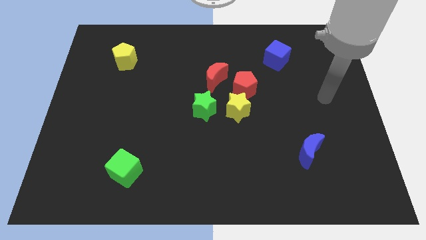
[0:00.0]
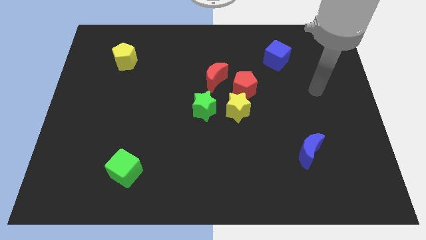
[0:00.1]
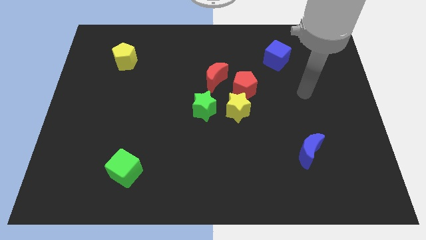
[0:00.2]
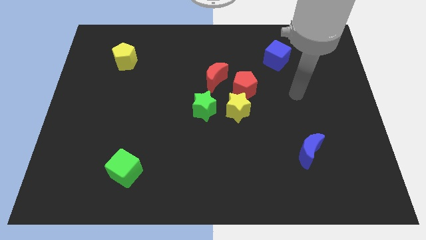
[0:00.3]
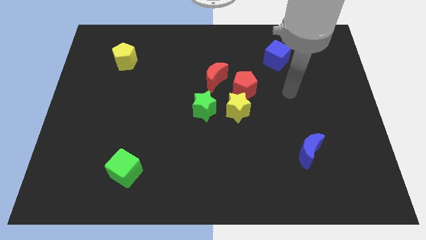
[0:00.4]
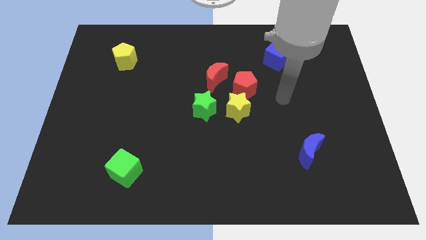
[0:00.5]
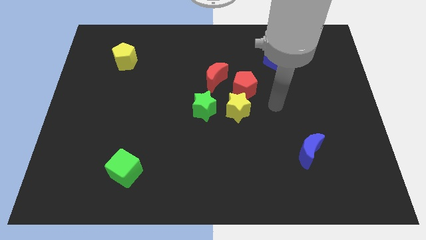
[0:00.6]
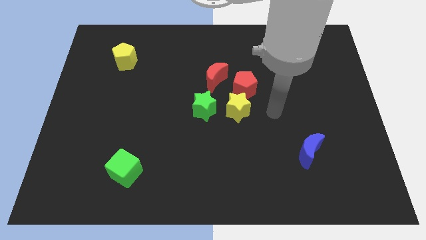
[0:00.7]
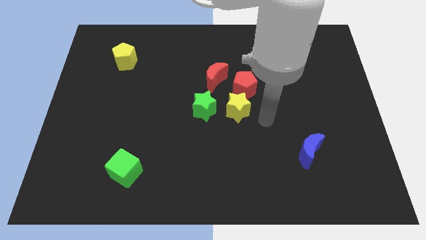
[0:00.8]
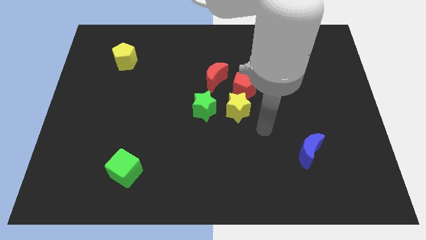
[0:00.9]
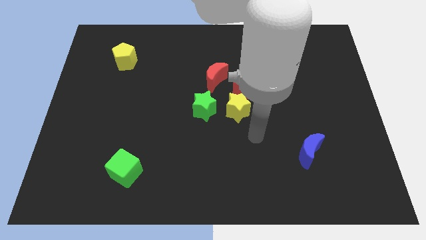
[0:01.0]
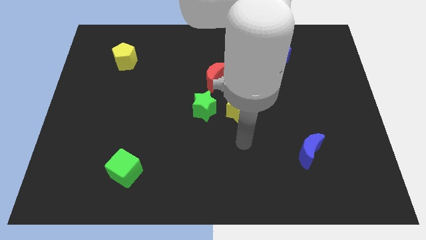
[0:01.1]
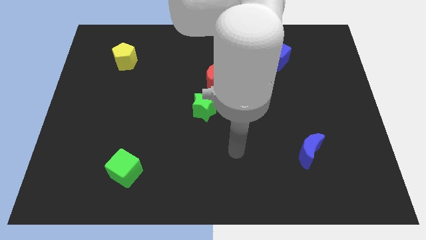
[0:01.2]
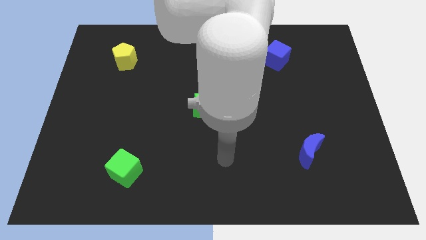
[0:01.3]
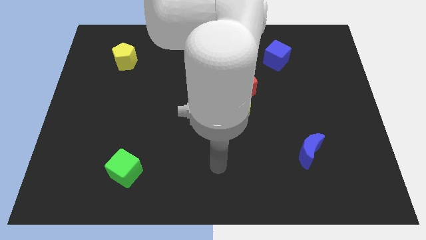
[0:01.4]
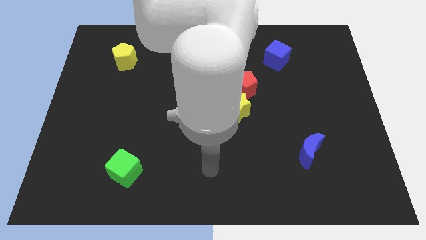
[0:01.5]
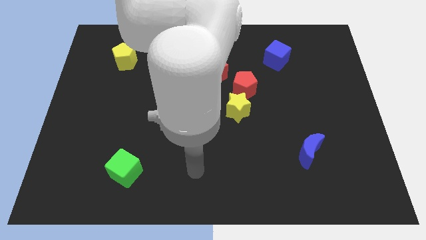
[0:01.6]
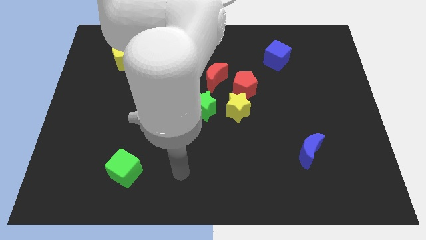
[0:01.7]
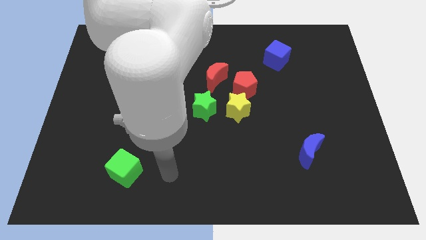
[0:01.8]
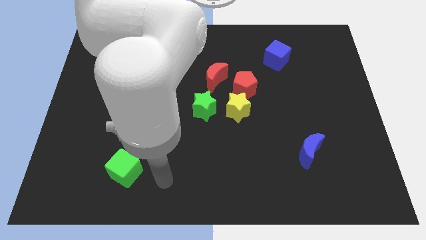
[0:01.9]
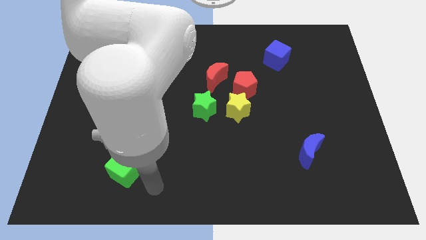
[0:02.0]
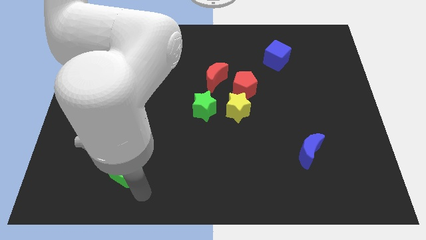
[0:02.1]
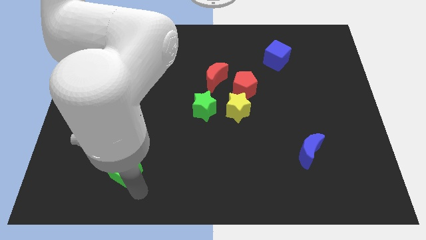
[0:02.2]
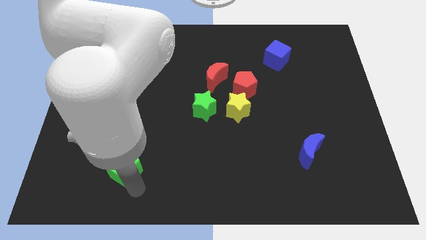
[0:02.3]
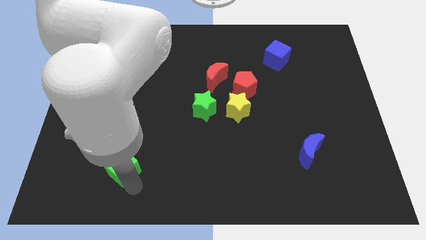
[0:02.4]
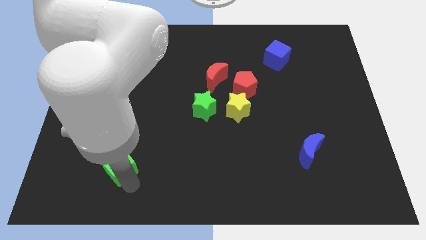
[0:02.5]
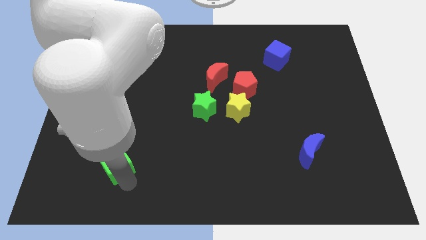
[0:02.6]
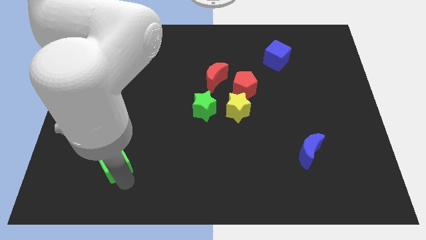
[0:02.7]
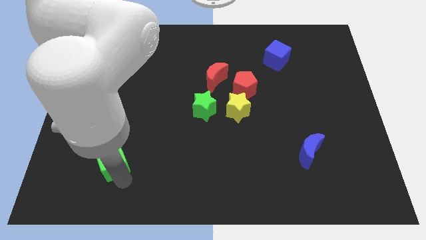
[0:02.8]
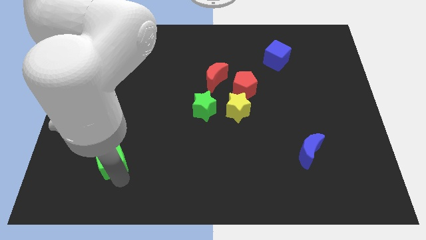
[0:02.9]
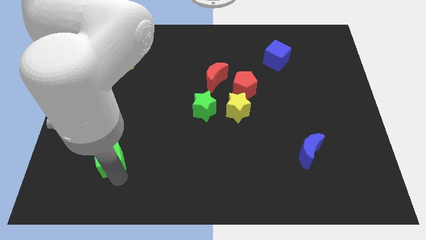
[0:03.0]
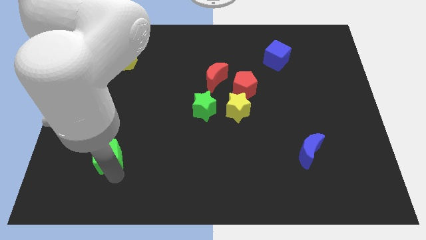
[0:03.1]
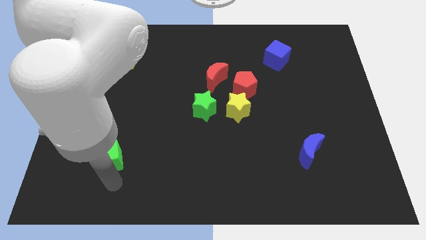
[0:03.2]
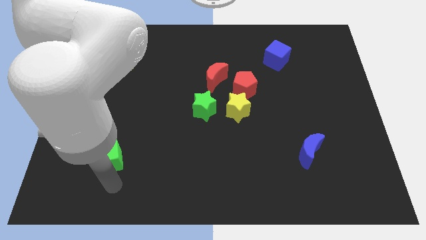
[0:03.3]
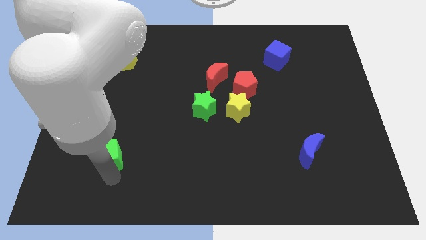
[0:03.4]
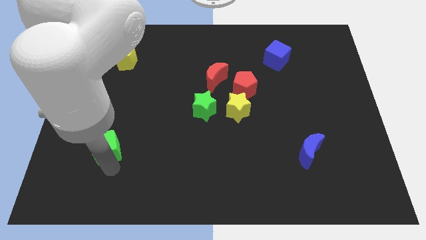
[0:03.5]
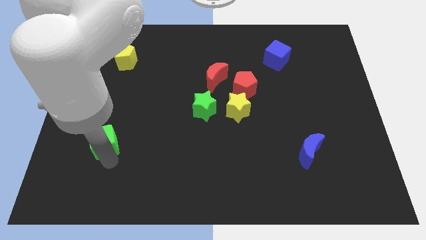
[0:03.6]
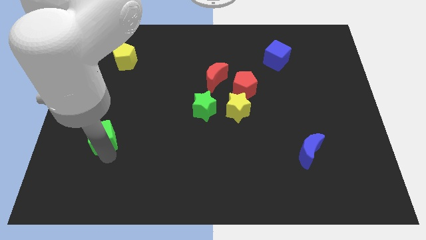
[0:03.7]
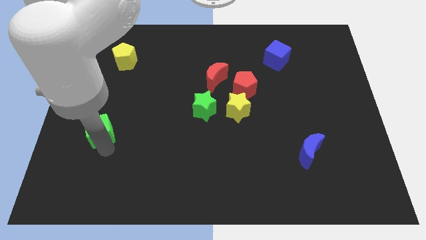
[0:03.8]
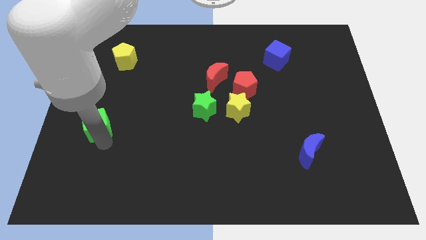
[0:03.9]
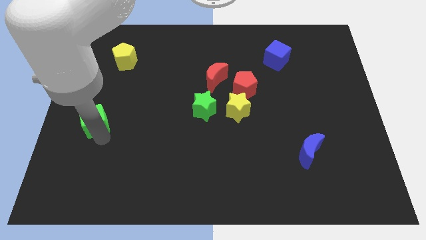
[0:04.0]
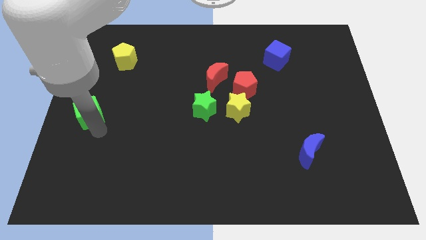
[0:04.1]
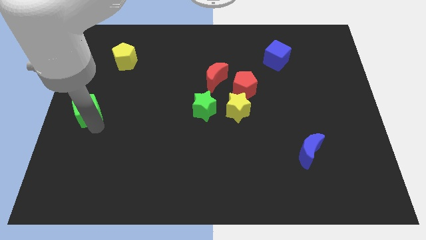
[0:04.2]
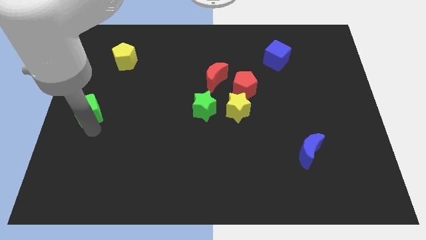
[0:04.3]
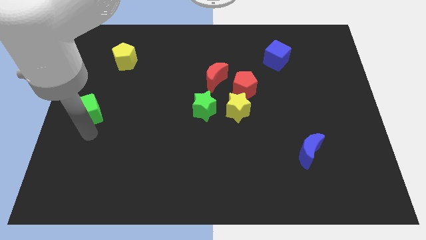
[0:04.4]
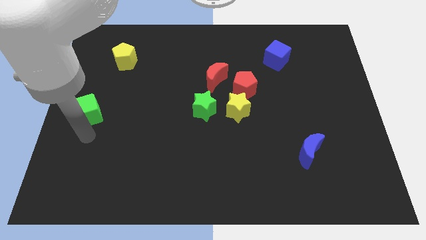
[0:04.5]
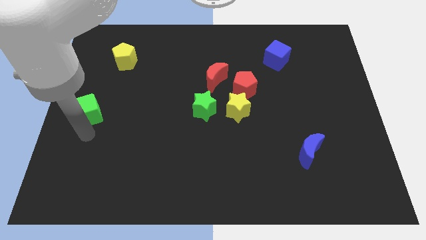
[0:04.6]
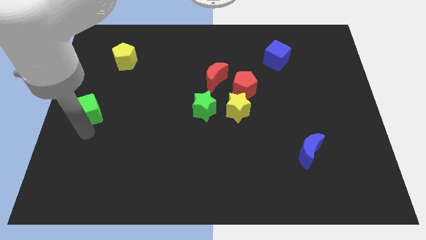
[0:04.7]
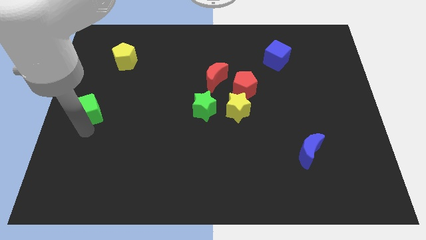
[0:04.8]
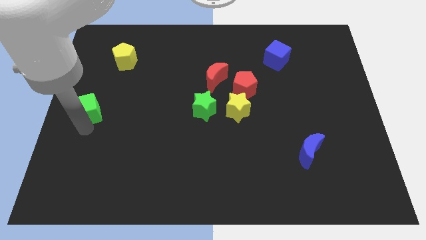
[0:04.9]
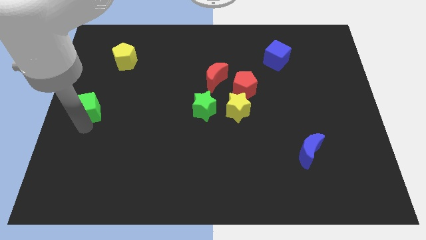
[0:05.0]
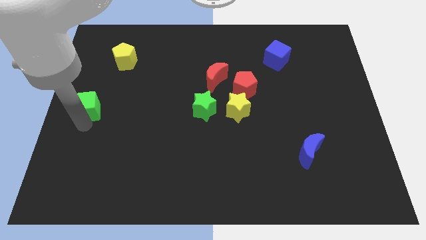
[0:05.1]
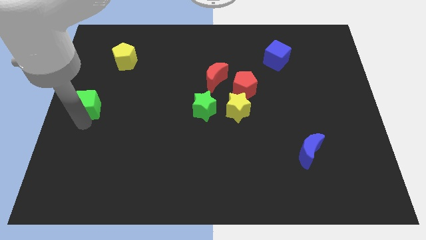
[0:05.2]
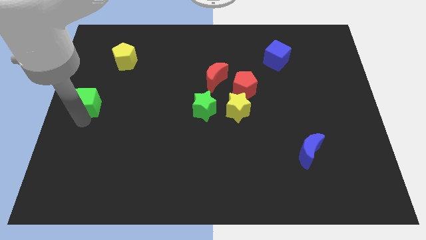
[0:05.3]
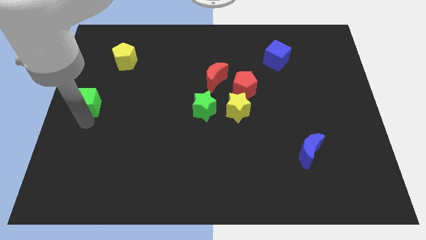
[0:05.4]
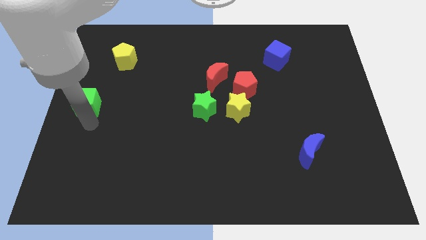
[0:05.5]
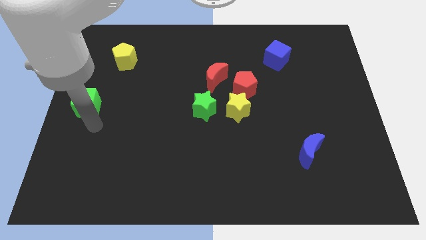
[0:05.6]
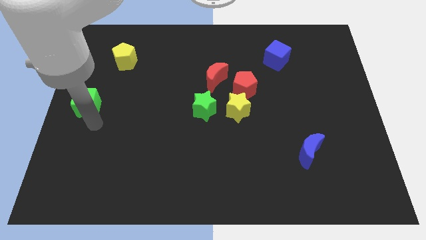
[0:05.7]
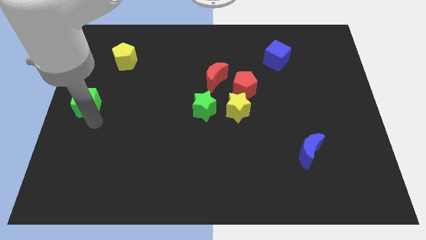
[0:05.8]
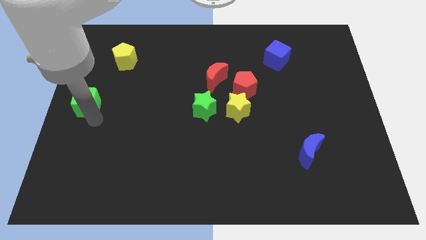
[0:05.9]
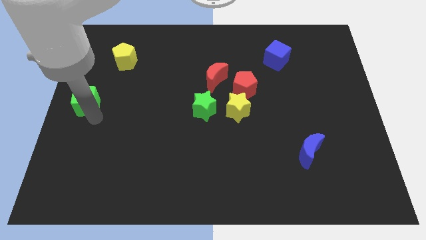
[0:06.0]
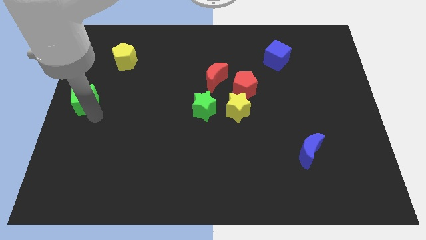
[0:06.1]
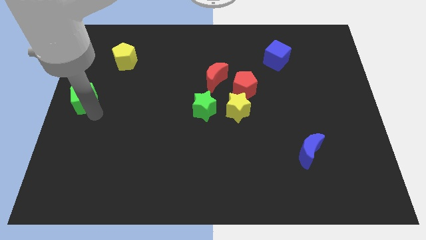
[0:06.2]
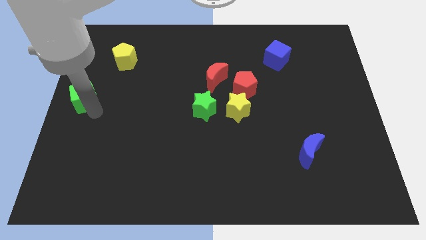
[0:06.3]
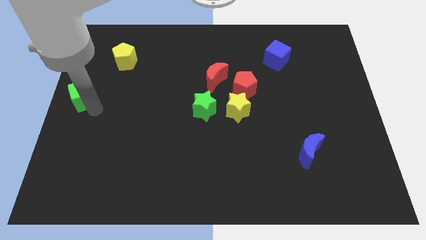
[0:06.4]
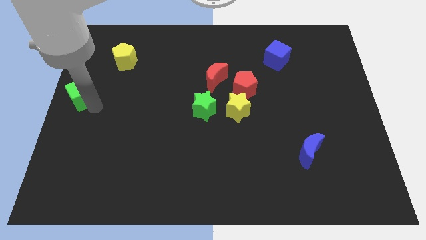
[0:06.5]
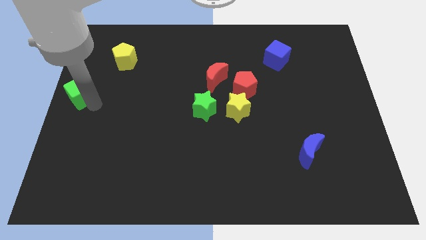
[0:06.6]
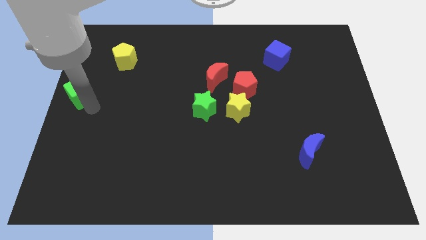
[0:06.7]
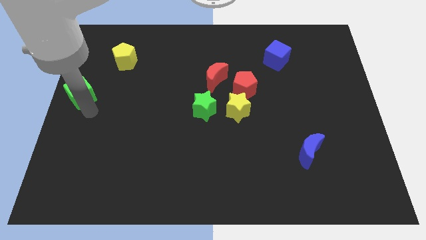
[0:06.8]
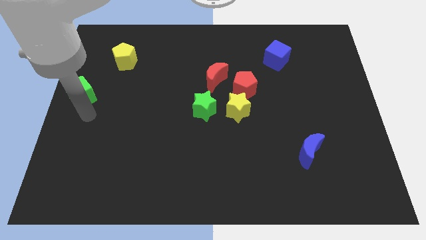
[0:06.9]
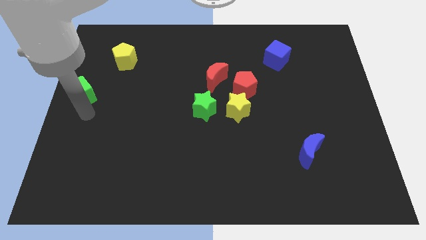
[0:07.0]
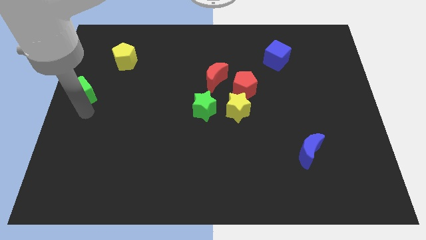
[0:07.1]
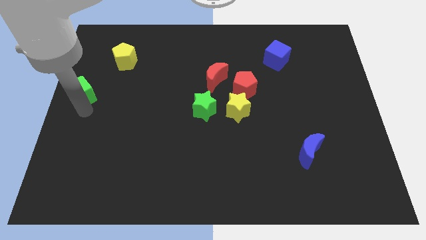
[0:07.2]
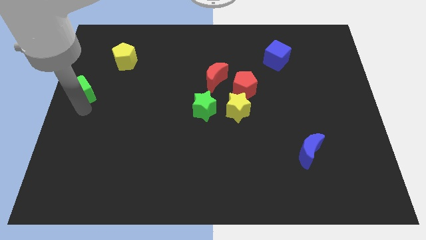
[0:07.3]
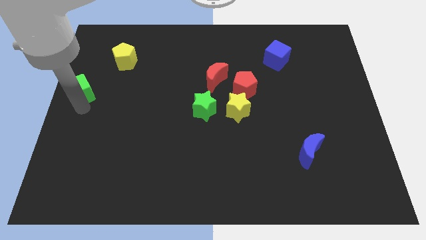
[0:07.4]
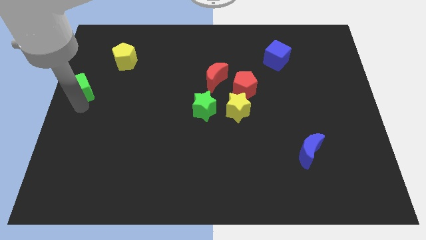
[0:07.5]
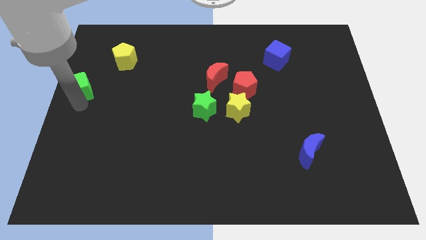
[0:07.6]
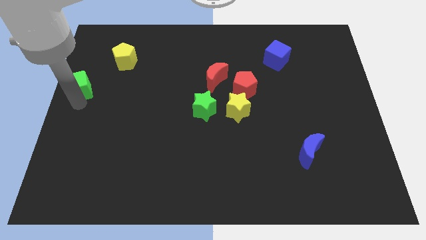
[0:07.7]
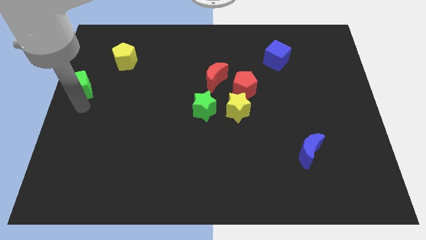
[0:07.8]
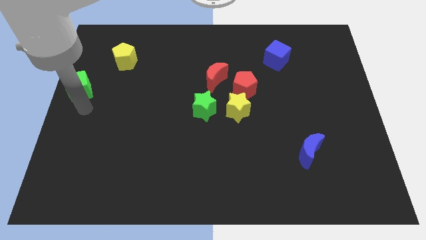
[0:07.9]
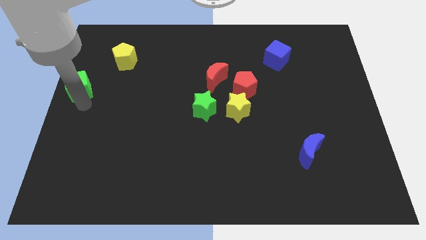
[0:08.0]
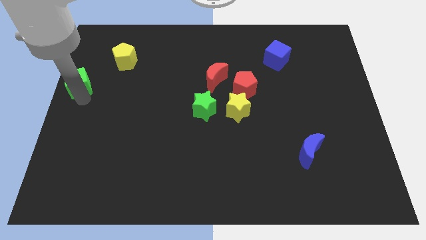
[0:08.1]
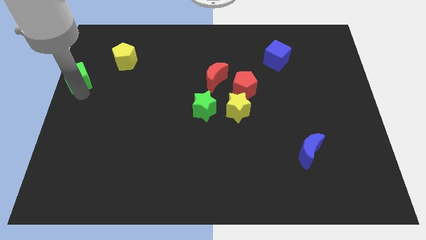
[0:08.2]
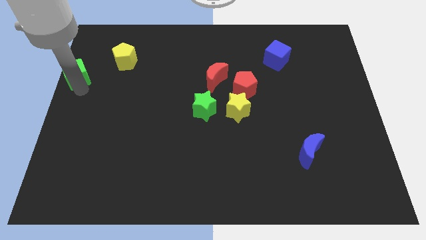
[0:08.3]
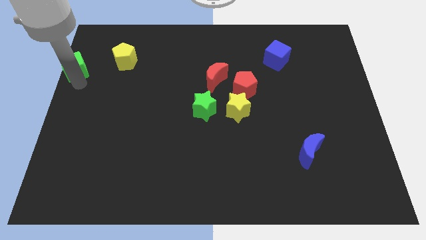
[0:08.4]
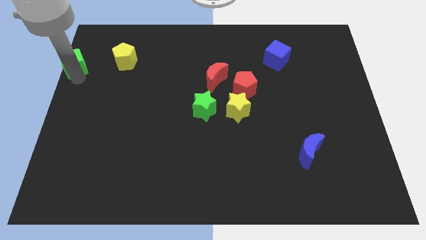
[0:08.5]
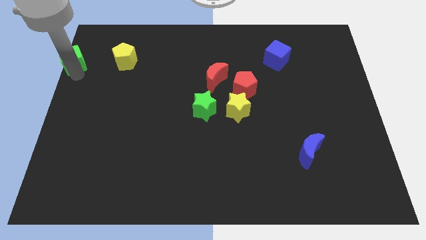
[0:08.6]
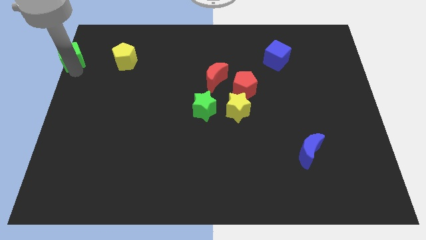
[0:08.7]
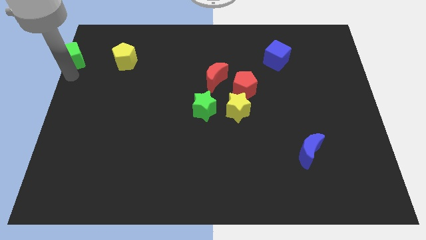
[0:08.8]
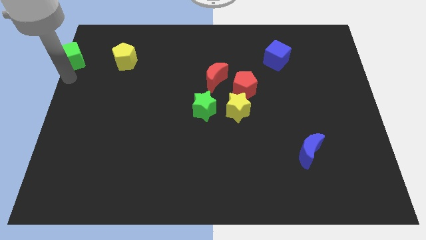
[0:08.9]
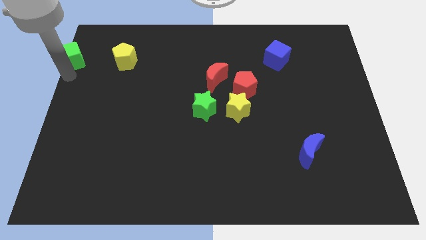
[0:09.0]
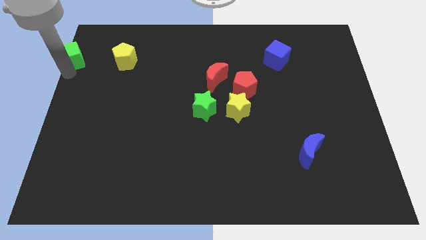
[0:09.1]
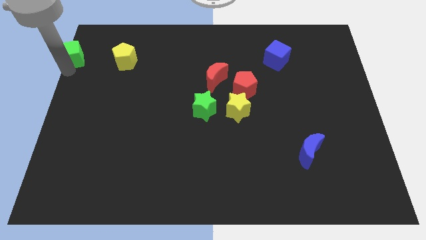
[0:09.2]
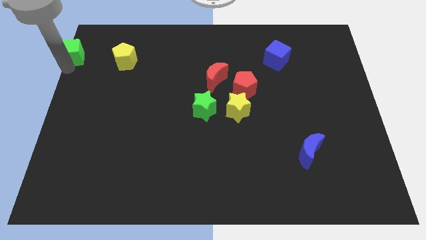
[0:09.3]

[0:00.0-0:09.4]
push the green cube to the top left of the board
